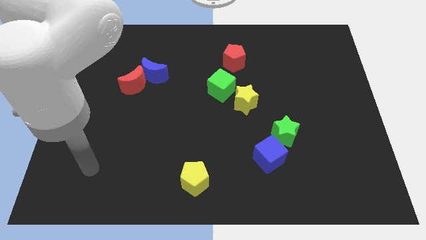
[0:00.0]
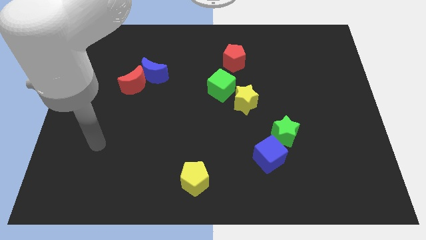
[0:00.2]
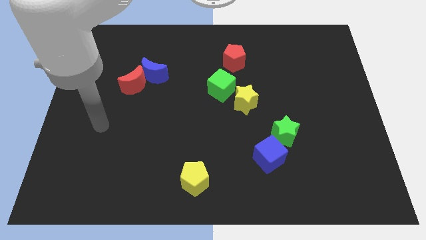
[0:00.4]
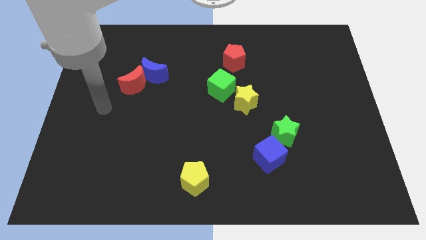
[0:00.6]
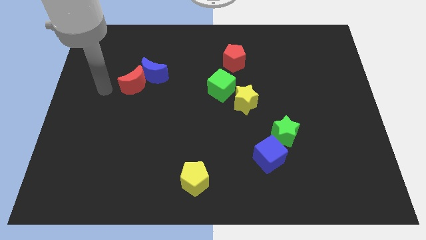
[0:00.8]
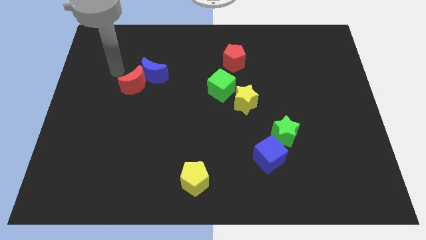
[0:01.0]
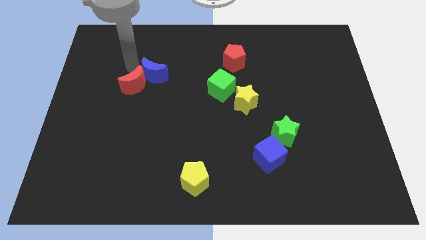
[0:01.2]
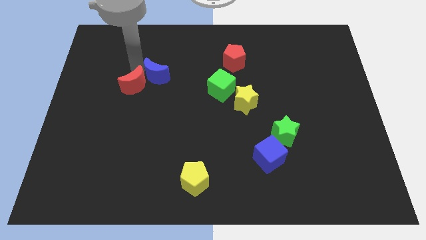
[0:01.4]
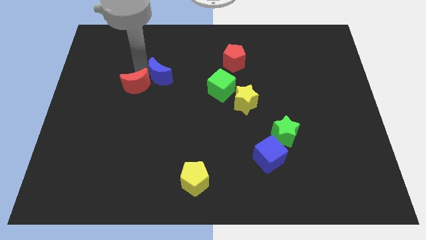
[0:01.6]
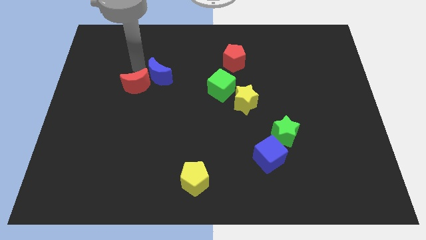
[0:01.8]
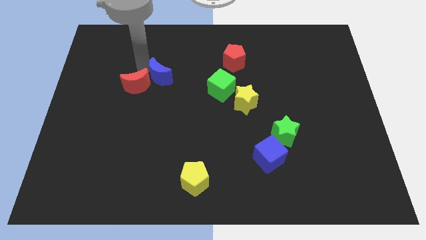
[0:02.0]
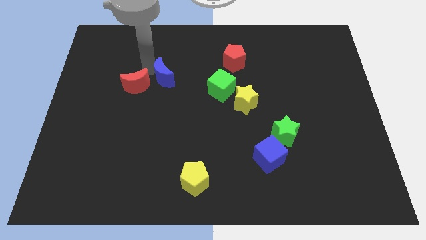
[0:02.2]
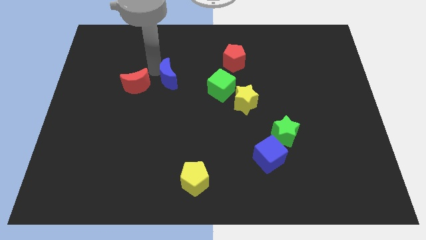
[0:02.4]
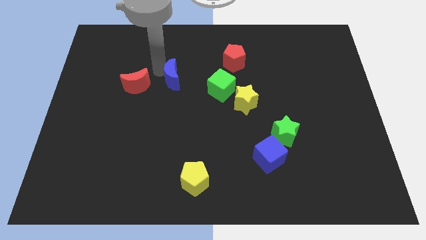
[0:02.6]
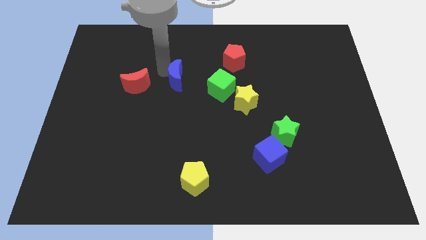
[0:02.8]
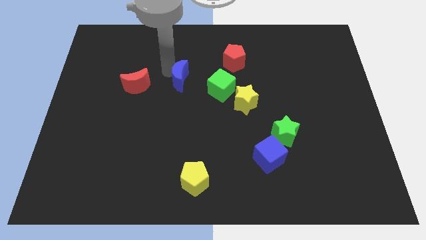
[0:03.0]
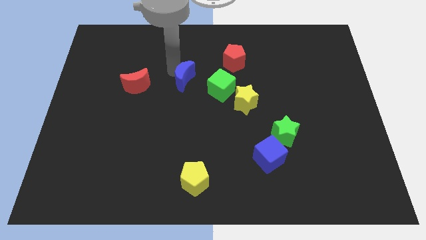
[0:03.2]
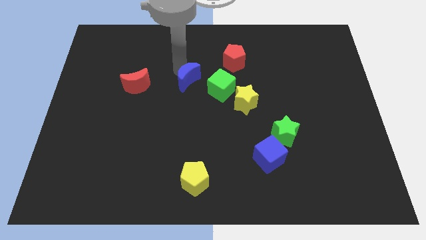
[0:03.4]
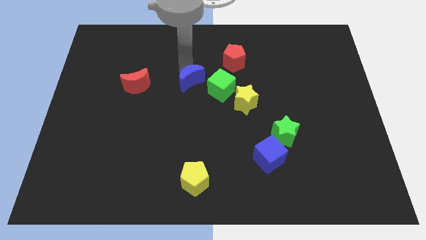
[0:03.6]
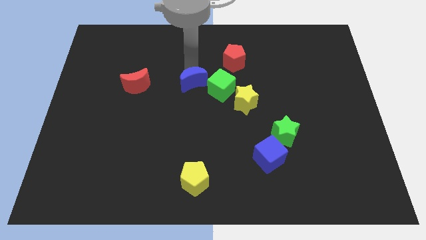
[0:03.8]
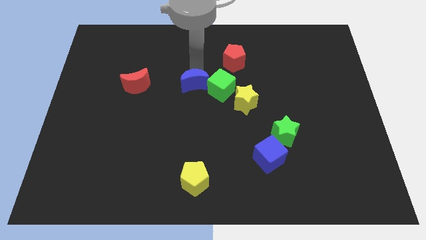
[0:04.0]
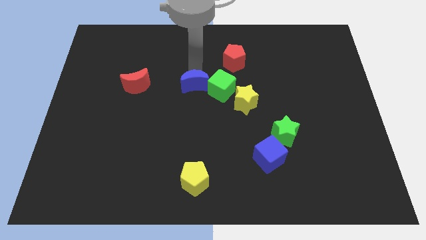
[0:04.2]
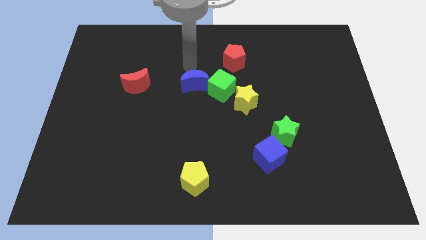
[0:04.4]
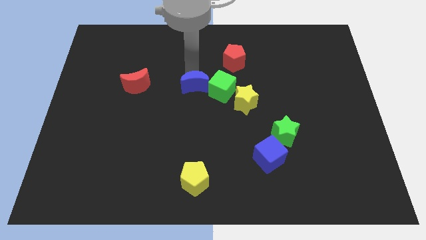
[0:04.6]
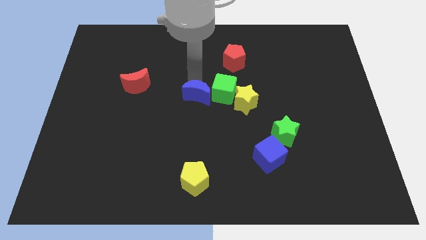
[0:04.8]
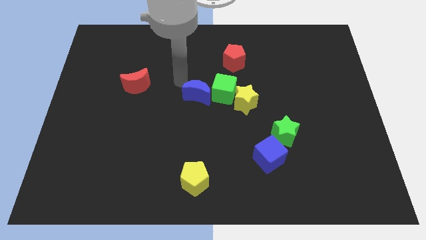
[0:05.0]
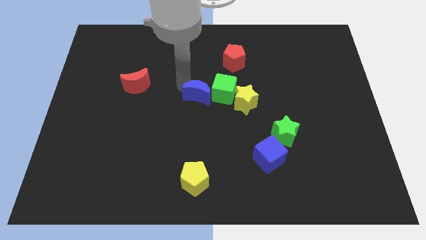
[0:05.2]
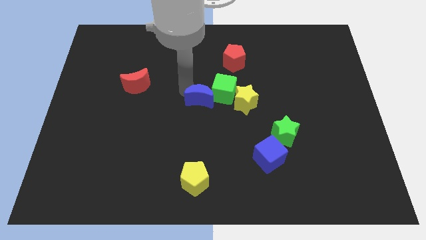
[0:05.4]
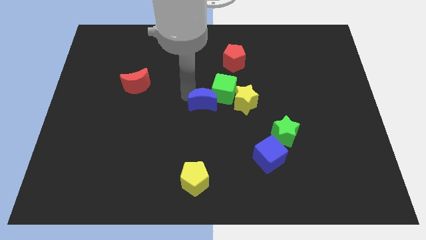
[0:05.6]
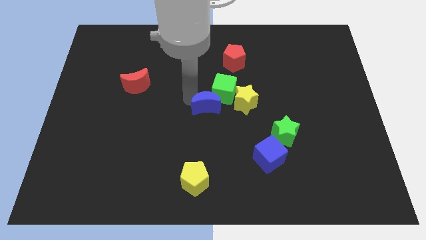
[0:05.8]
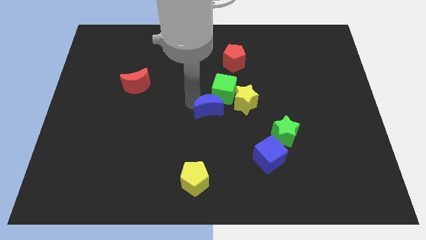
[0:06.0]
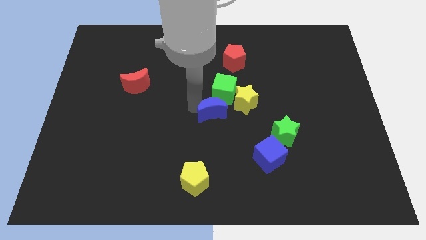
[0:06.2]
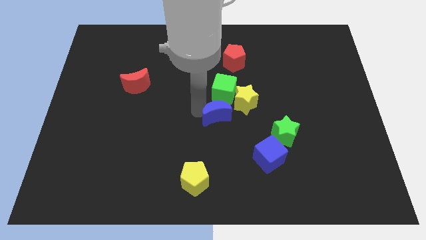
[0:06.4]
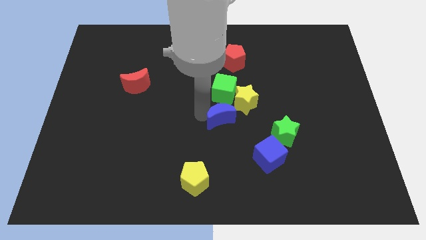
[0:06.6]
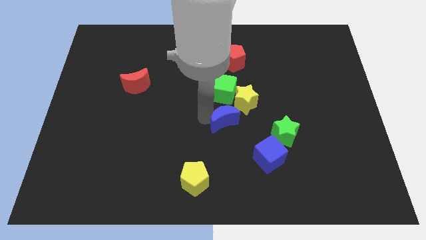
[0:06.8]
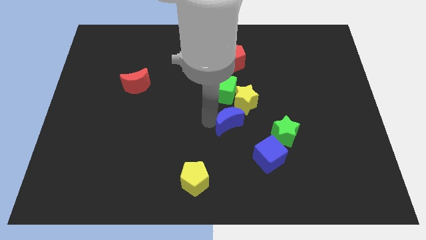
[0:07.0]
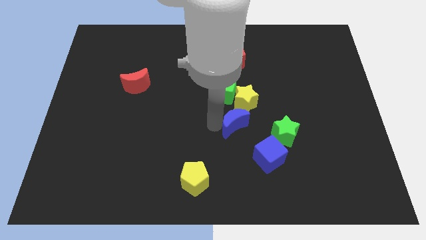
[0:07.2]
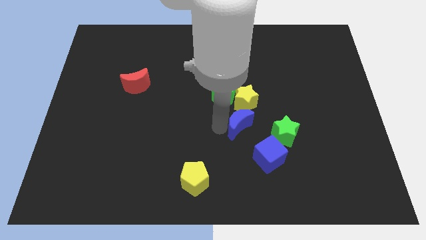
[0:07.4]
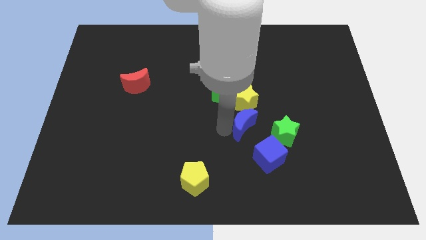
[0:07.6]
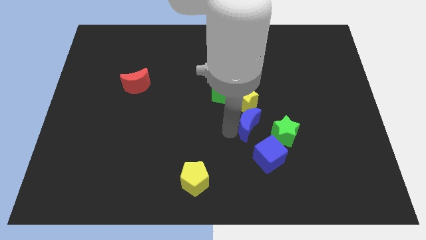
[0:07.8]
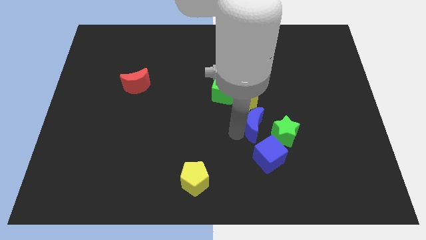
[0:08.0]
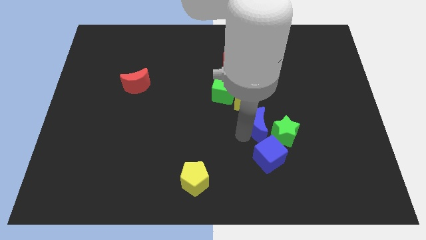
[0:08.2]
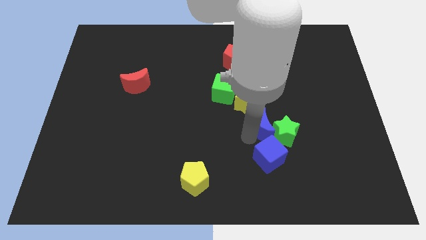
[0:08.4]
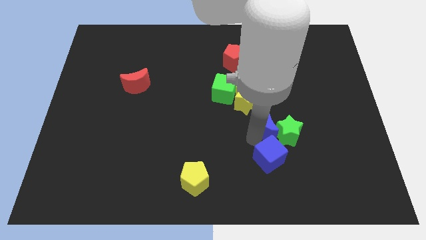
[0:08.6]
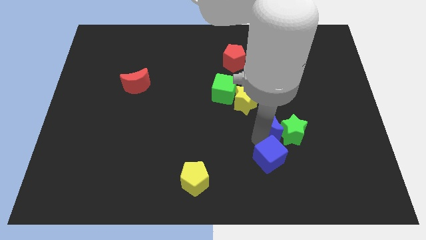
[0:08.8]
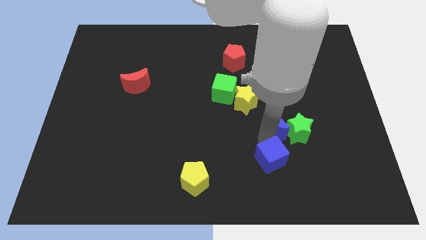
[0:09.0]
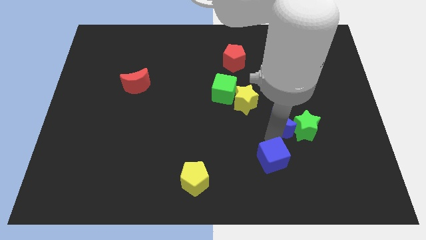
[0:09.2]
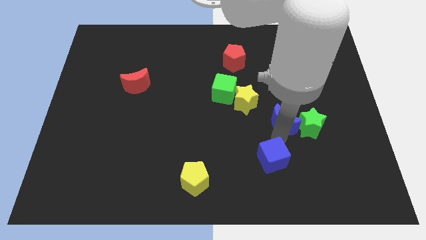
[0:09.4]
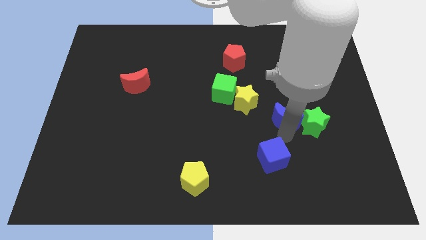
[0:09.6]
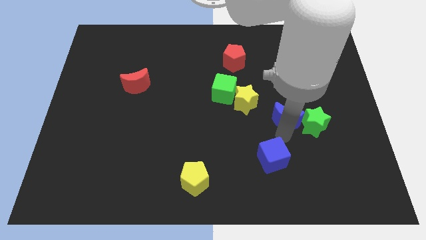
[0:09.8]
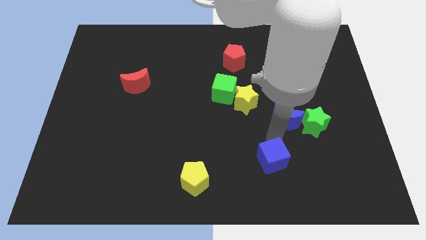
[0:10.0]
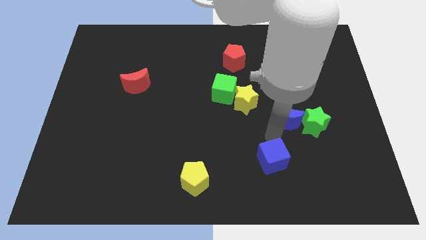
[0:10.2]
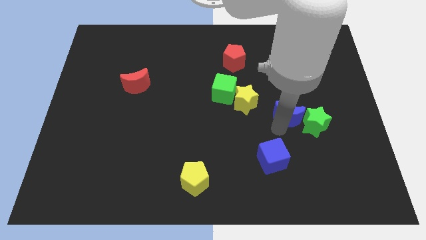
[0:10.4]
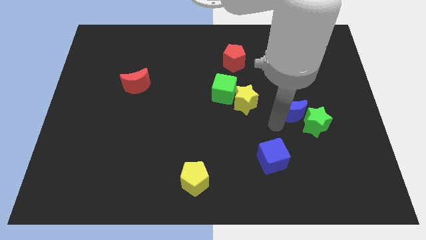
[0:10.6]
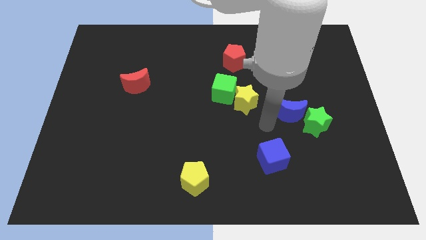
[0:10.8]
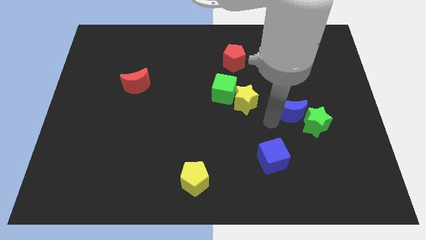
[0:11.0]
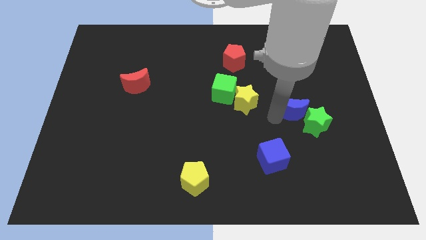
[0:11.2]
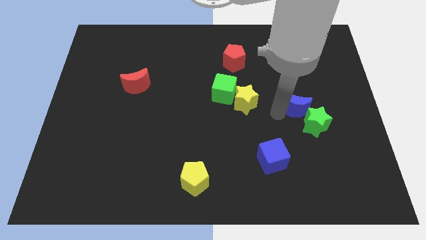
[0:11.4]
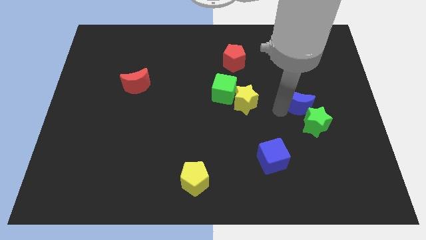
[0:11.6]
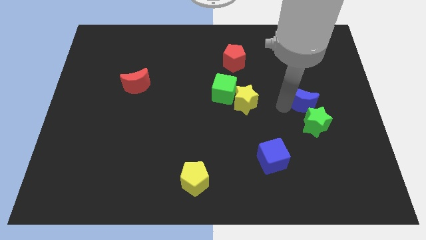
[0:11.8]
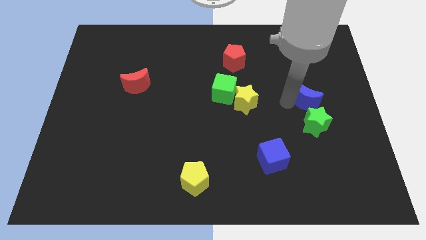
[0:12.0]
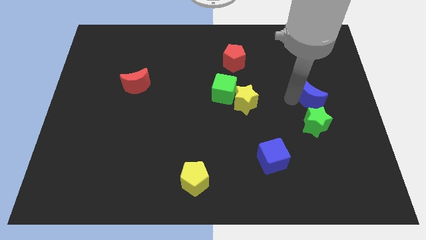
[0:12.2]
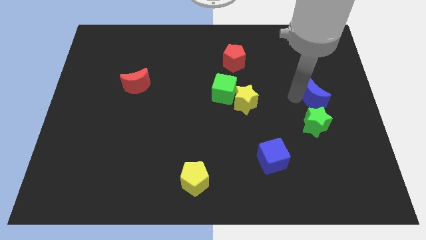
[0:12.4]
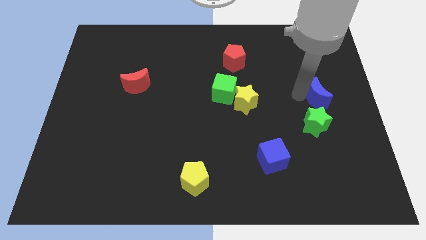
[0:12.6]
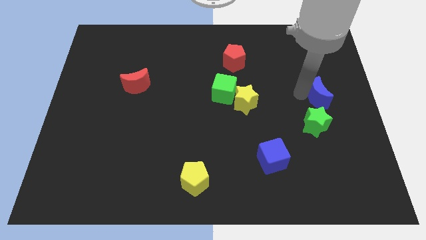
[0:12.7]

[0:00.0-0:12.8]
move the blue moon to the right side of the board

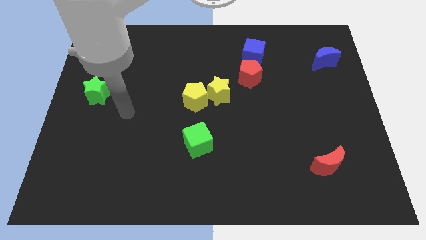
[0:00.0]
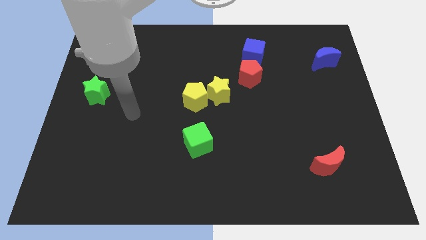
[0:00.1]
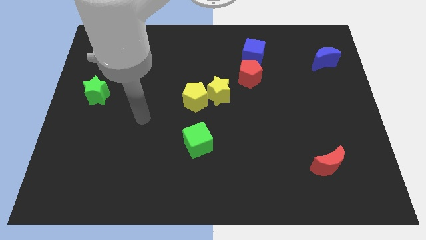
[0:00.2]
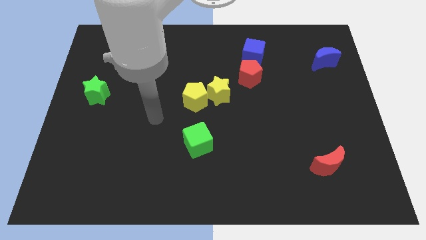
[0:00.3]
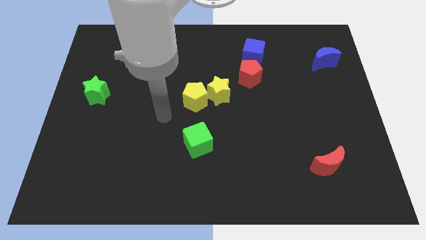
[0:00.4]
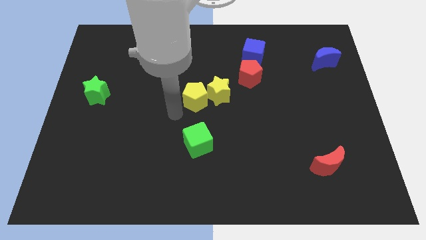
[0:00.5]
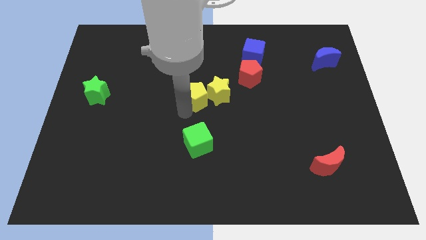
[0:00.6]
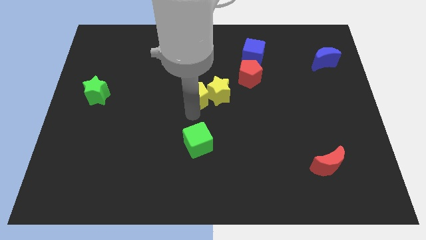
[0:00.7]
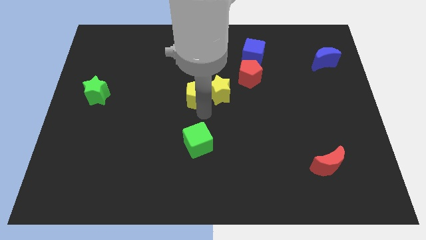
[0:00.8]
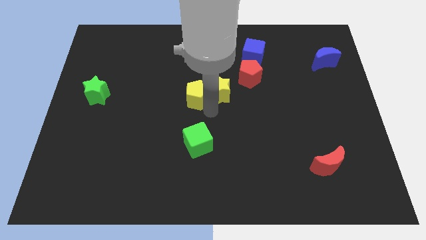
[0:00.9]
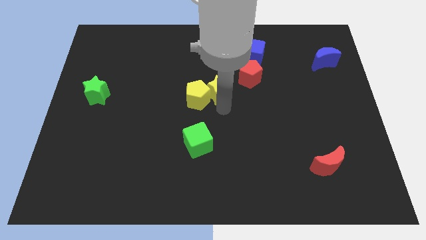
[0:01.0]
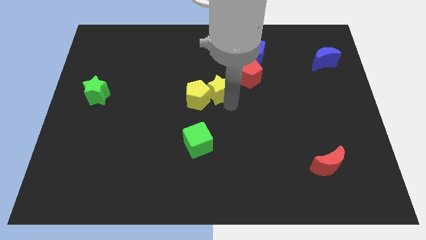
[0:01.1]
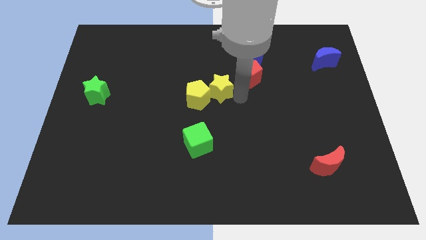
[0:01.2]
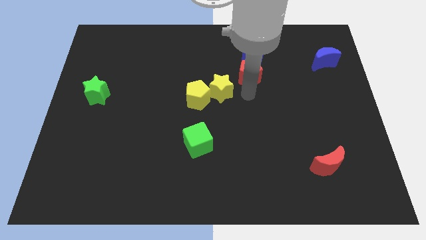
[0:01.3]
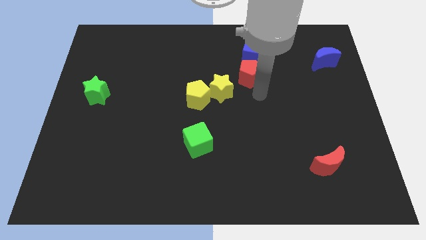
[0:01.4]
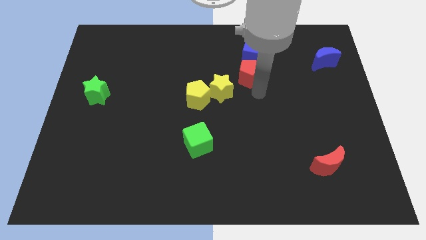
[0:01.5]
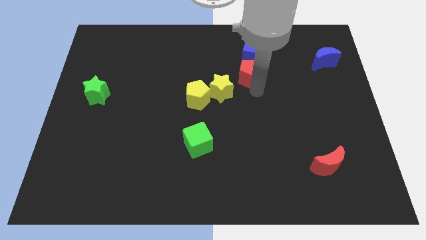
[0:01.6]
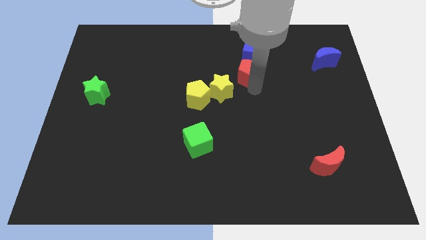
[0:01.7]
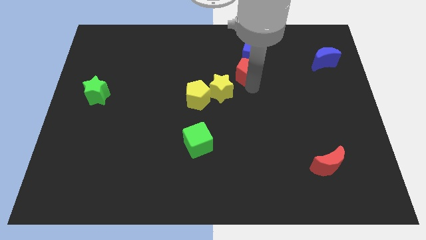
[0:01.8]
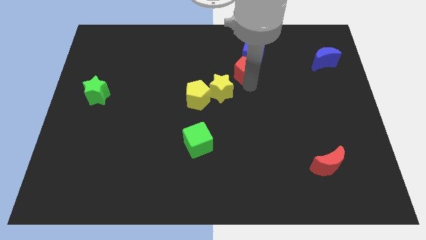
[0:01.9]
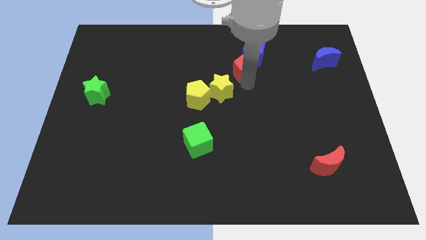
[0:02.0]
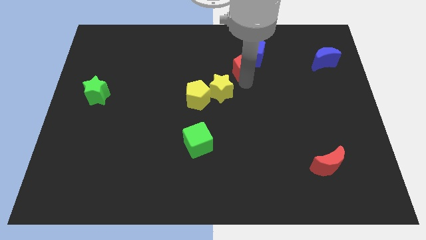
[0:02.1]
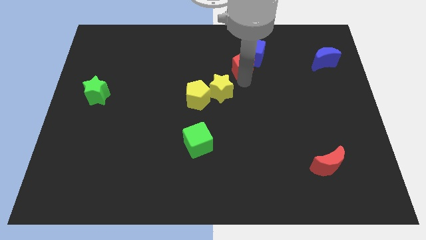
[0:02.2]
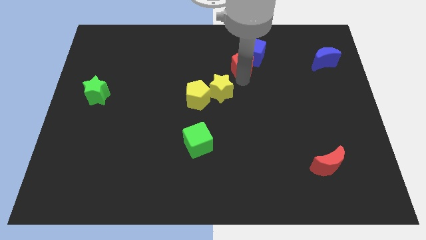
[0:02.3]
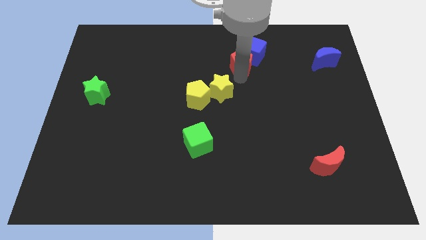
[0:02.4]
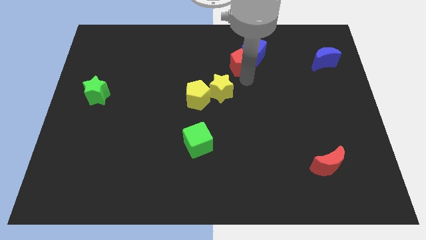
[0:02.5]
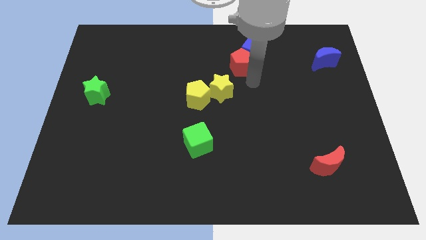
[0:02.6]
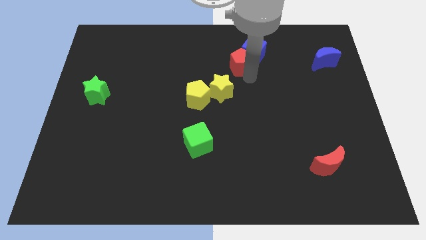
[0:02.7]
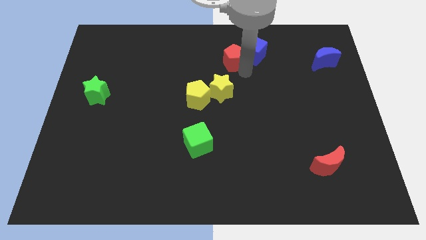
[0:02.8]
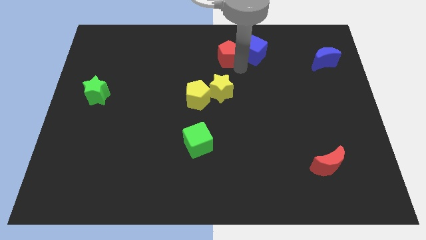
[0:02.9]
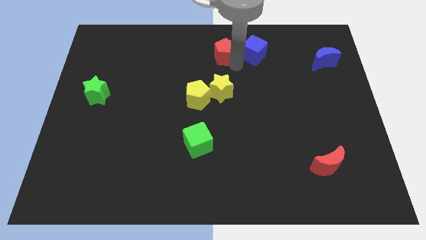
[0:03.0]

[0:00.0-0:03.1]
move the red pentagon to the towards your base
